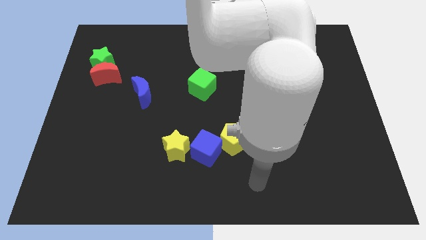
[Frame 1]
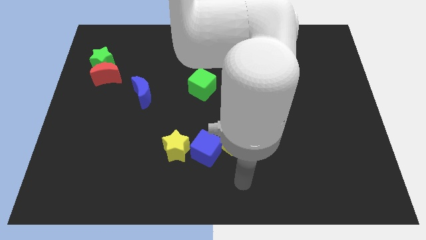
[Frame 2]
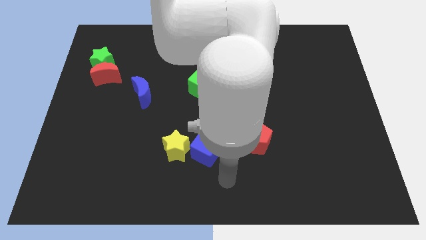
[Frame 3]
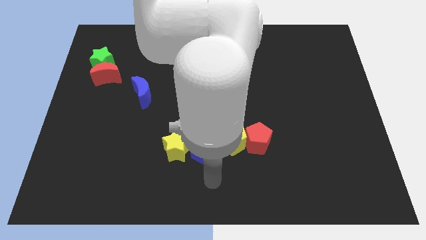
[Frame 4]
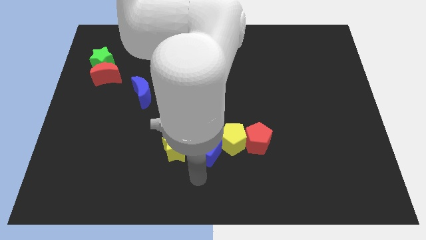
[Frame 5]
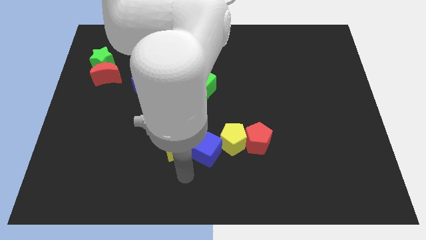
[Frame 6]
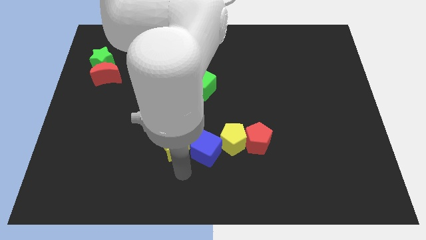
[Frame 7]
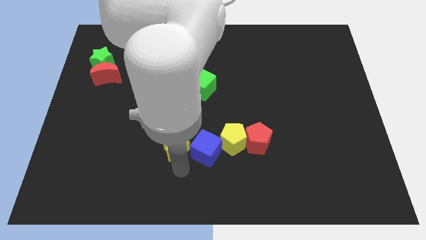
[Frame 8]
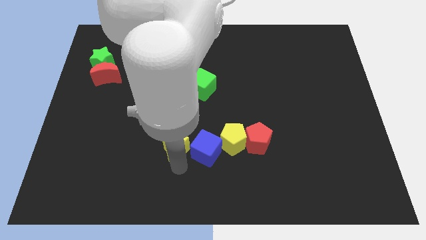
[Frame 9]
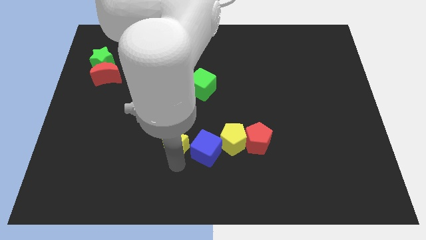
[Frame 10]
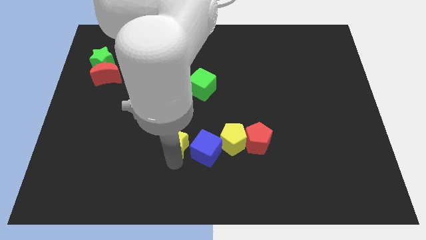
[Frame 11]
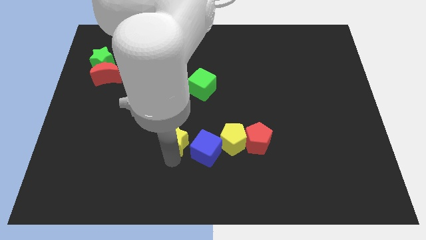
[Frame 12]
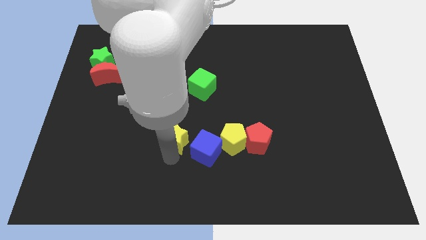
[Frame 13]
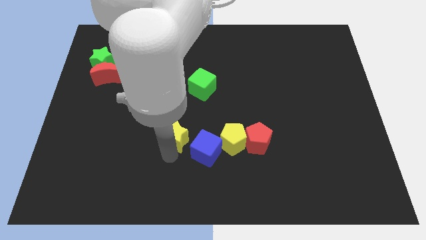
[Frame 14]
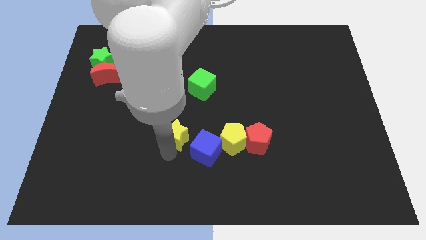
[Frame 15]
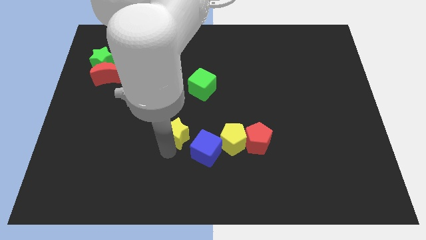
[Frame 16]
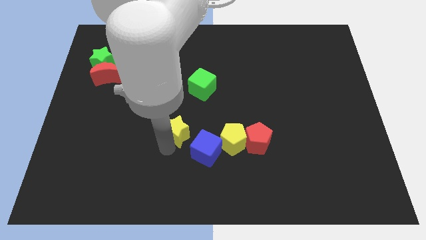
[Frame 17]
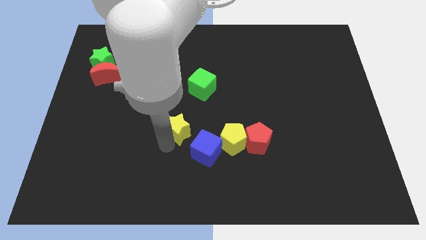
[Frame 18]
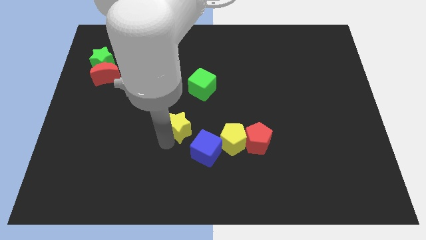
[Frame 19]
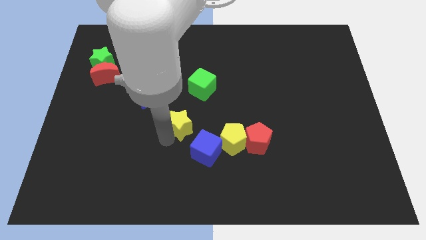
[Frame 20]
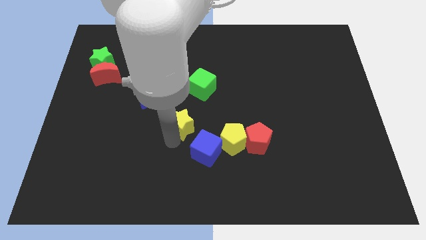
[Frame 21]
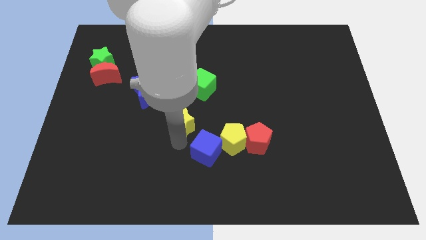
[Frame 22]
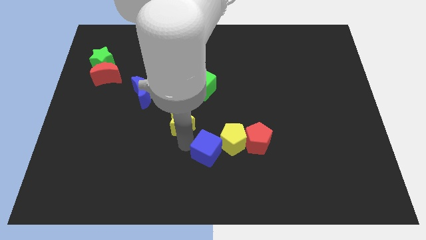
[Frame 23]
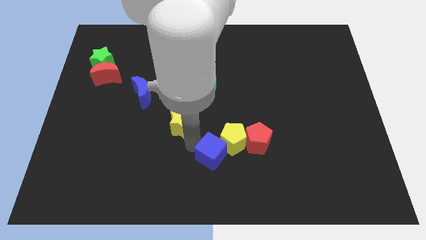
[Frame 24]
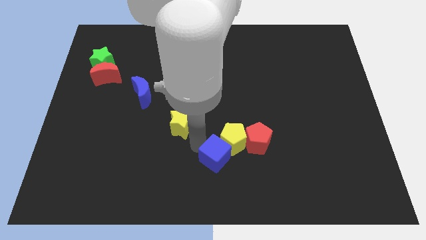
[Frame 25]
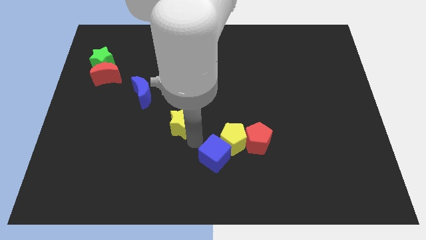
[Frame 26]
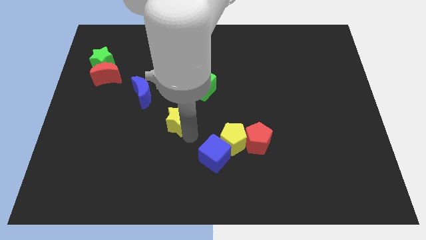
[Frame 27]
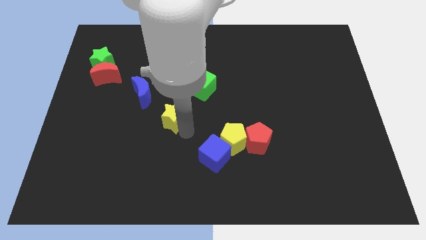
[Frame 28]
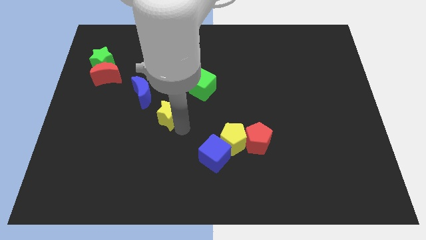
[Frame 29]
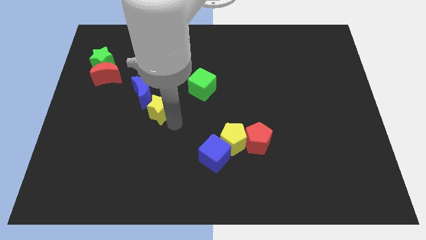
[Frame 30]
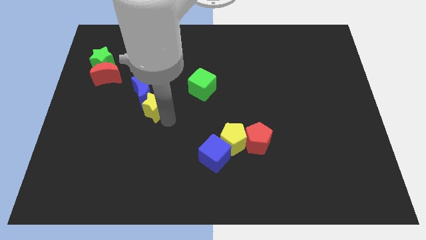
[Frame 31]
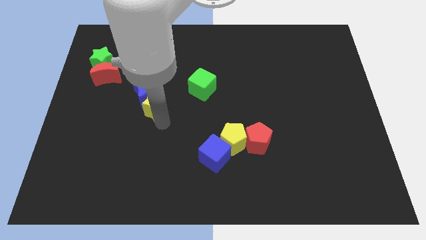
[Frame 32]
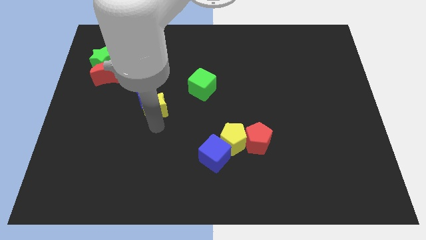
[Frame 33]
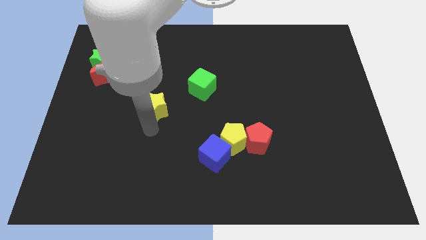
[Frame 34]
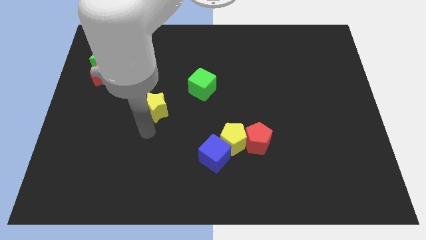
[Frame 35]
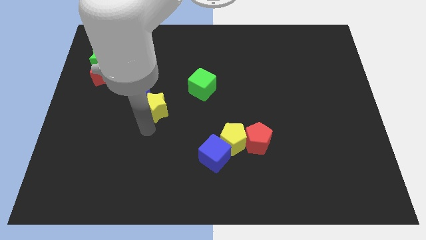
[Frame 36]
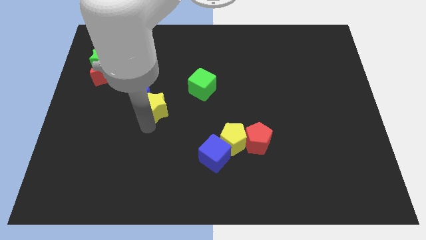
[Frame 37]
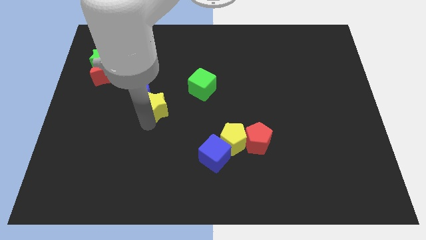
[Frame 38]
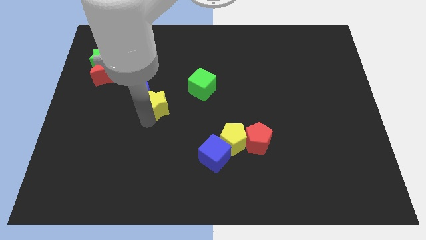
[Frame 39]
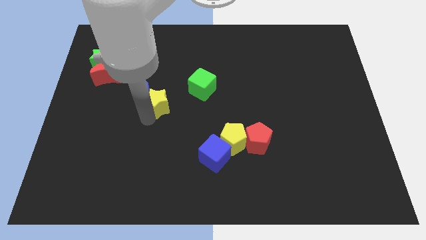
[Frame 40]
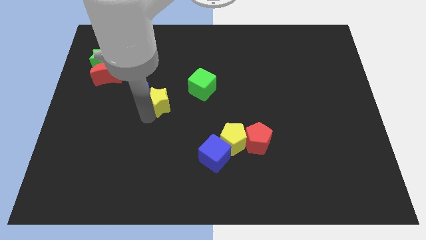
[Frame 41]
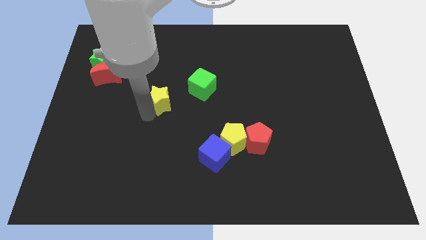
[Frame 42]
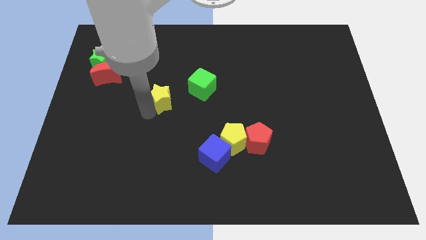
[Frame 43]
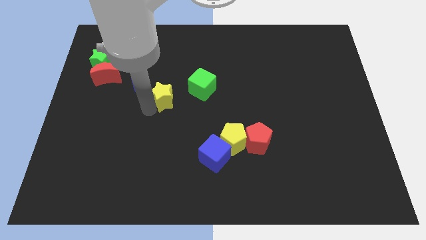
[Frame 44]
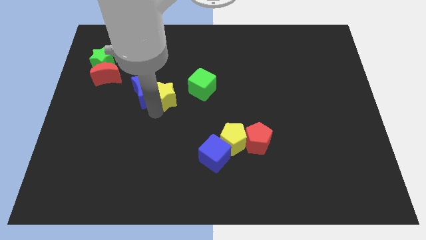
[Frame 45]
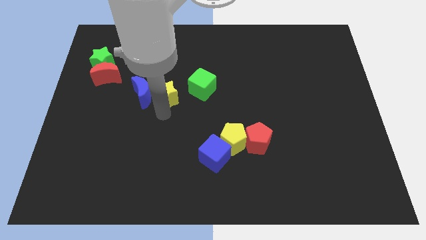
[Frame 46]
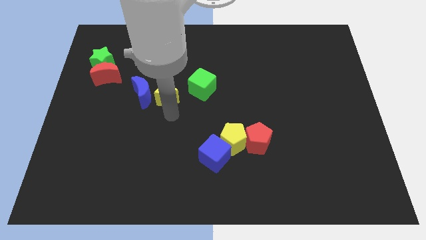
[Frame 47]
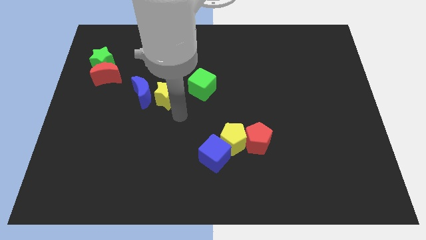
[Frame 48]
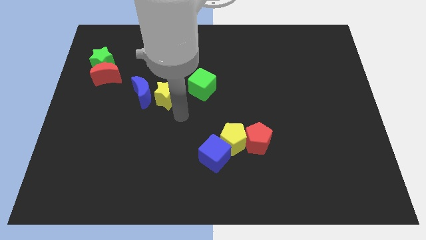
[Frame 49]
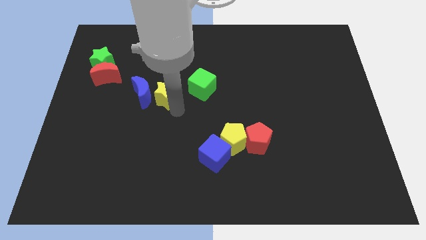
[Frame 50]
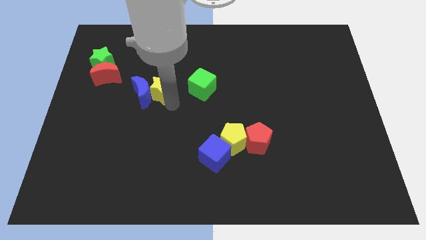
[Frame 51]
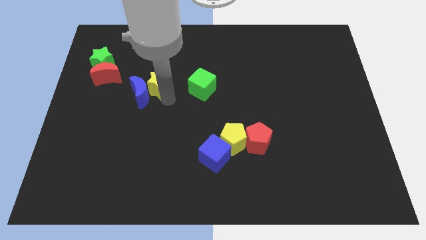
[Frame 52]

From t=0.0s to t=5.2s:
put the yellow star just right of the red moon

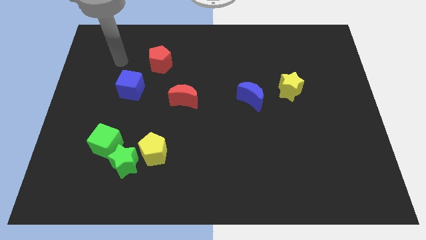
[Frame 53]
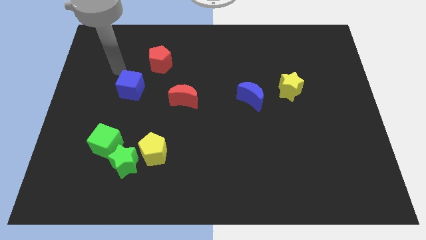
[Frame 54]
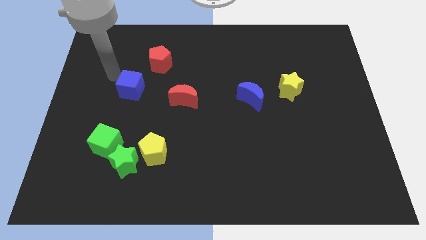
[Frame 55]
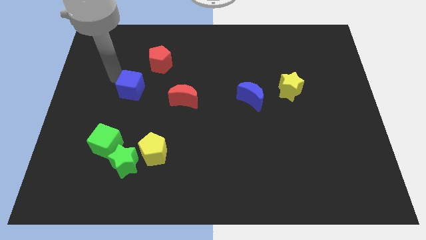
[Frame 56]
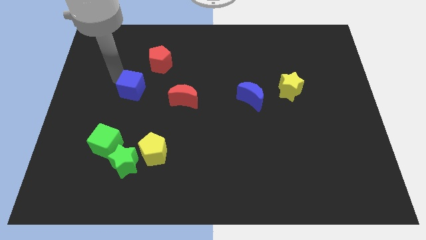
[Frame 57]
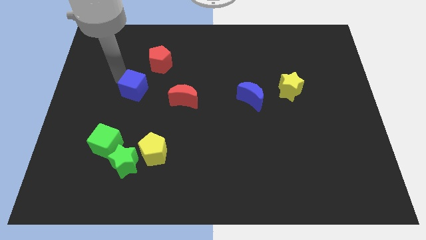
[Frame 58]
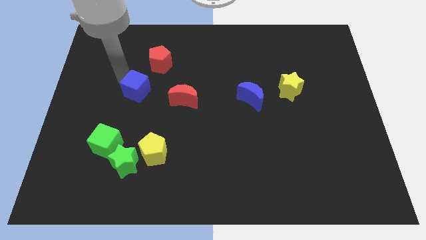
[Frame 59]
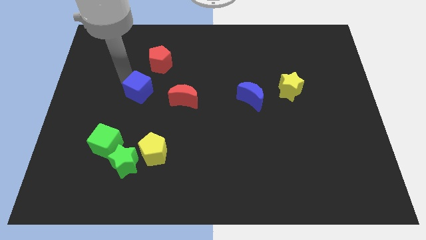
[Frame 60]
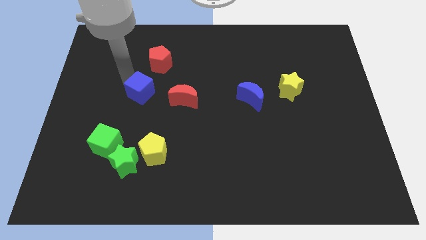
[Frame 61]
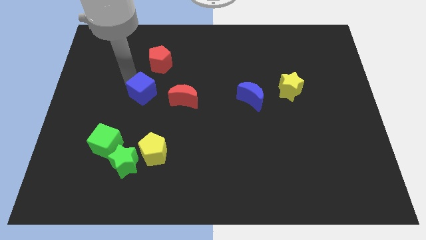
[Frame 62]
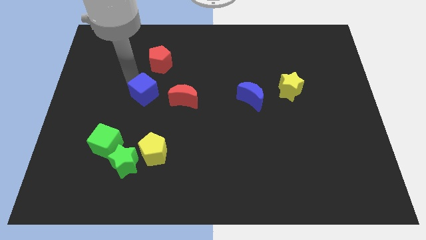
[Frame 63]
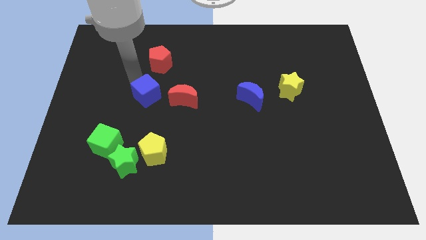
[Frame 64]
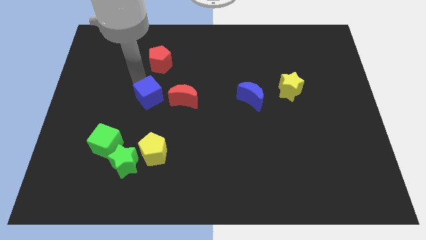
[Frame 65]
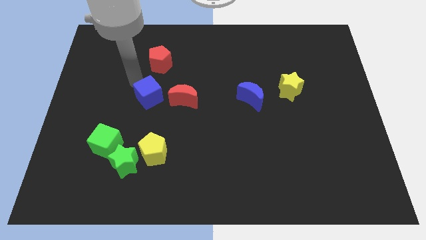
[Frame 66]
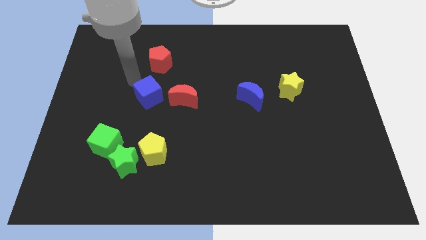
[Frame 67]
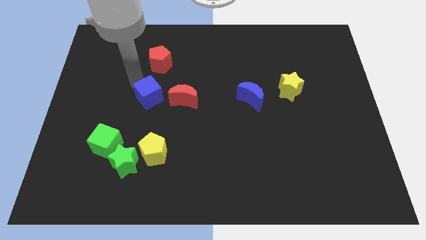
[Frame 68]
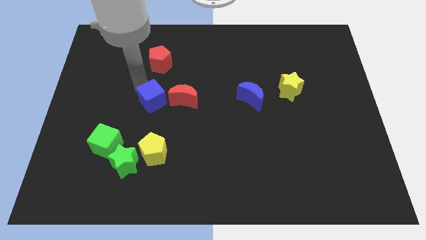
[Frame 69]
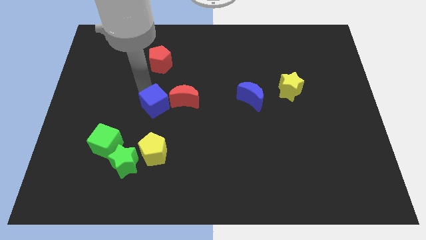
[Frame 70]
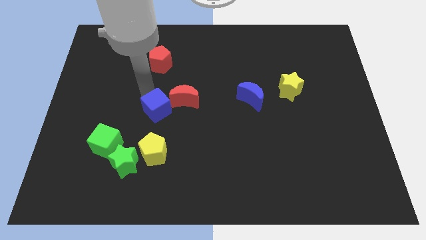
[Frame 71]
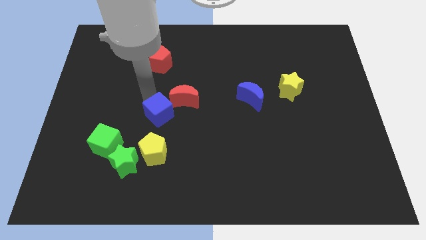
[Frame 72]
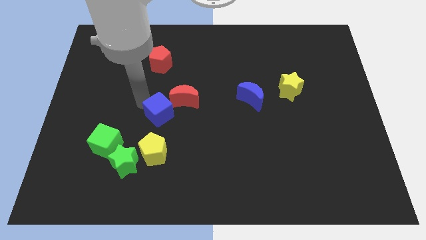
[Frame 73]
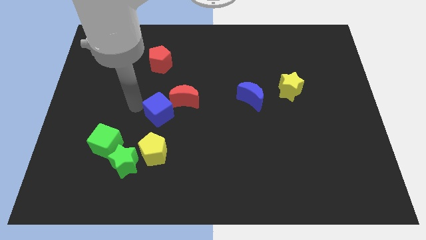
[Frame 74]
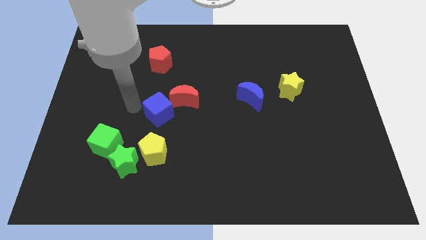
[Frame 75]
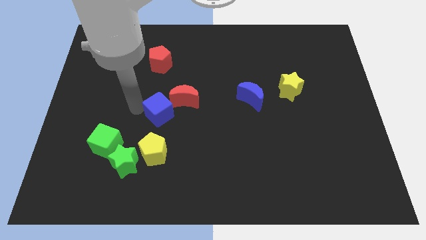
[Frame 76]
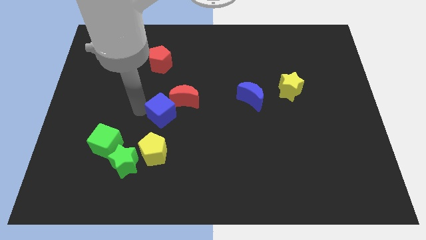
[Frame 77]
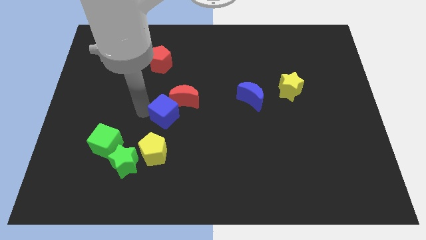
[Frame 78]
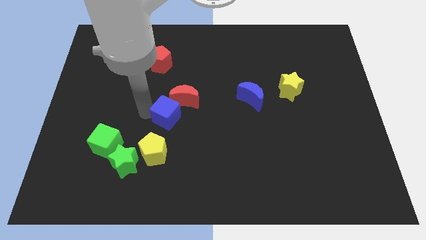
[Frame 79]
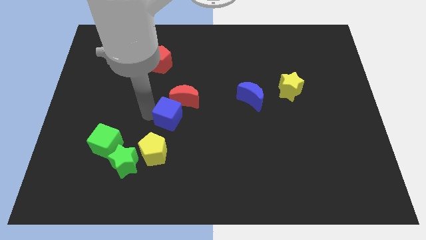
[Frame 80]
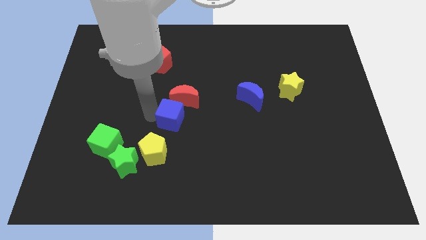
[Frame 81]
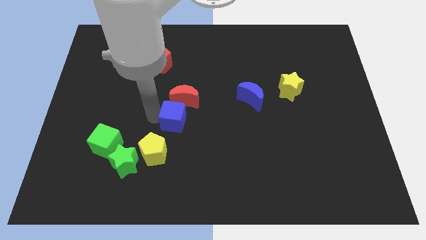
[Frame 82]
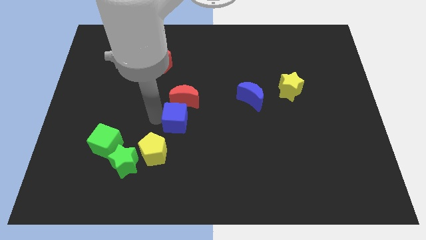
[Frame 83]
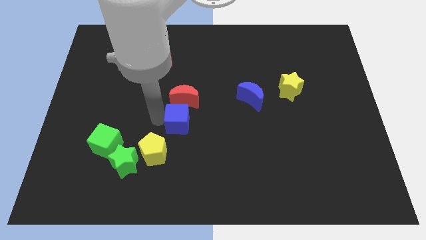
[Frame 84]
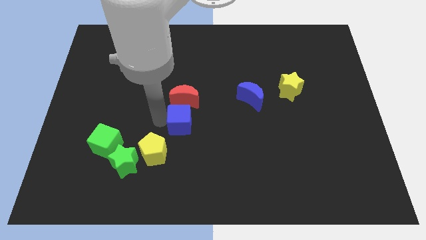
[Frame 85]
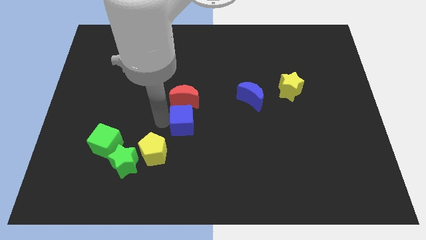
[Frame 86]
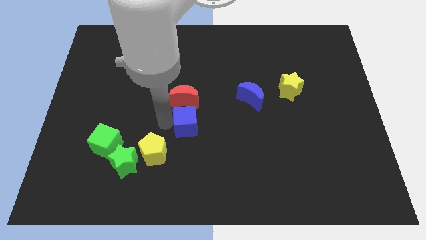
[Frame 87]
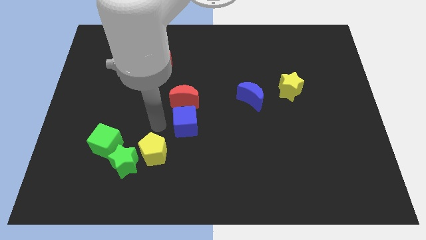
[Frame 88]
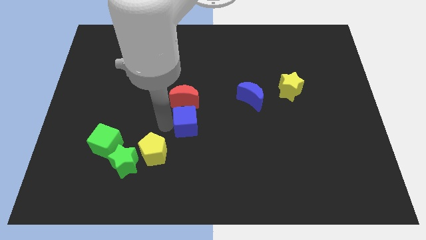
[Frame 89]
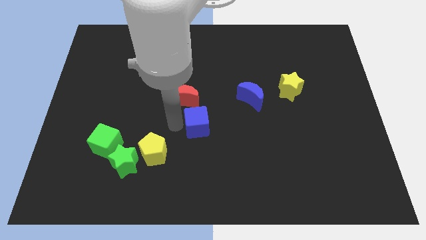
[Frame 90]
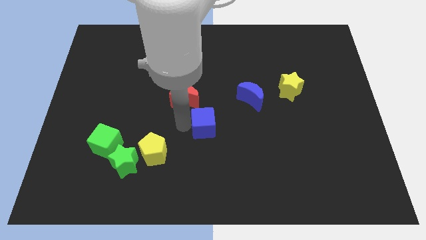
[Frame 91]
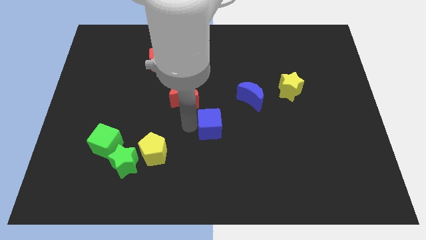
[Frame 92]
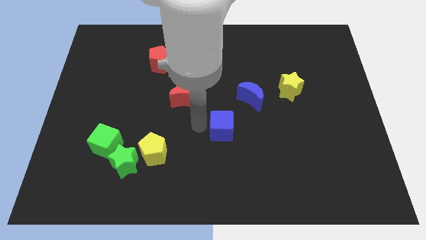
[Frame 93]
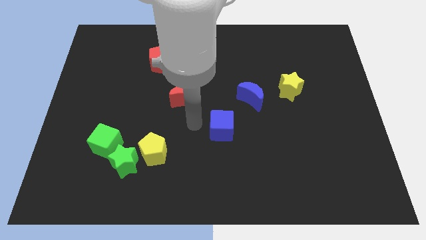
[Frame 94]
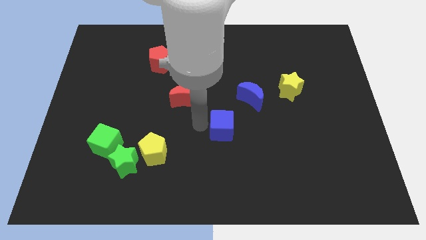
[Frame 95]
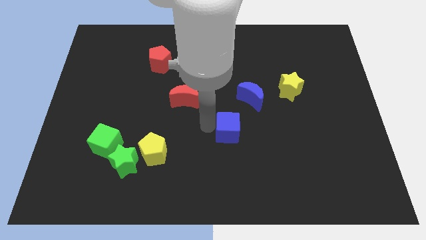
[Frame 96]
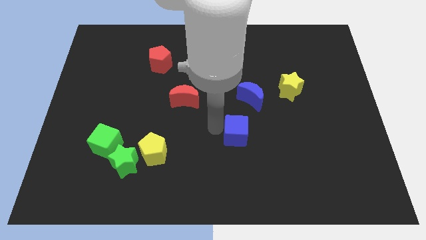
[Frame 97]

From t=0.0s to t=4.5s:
put the blue cube to the bottom of the blue moon
